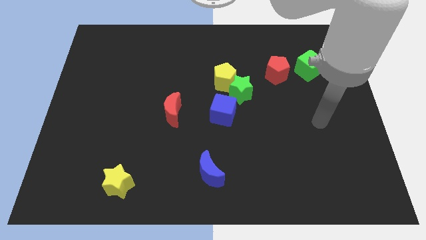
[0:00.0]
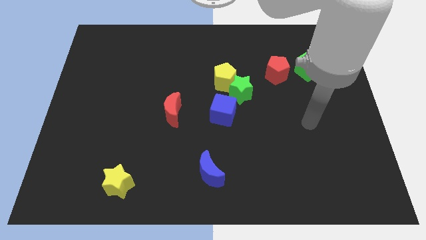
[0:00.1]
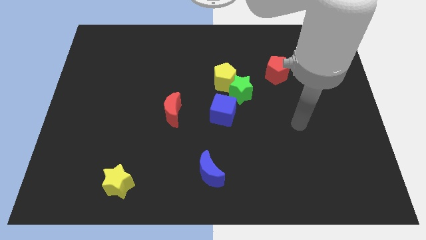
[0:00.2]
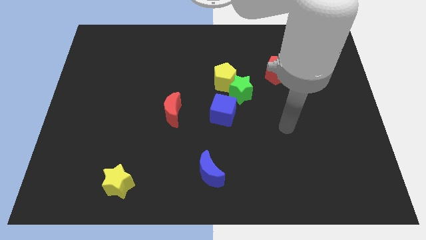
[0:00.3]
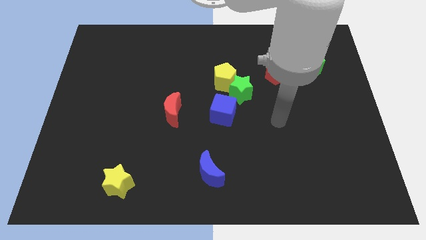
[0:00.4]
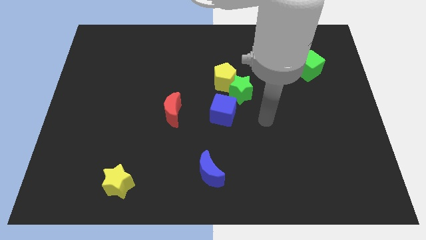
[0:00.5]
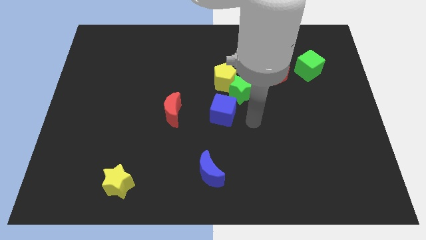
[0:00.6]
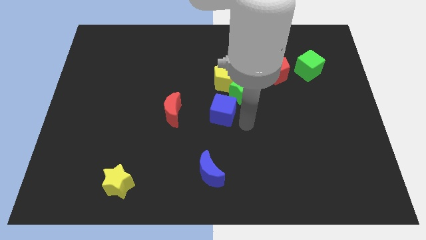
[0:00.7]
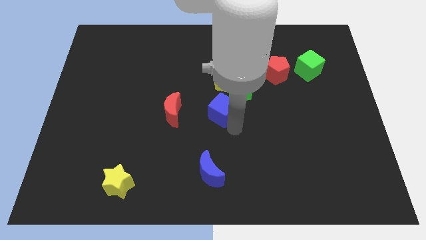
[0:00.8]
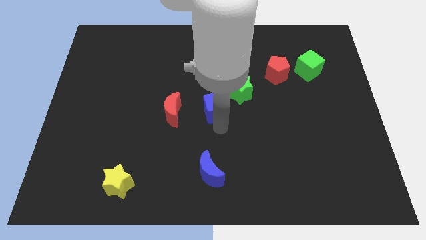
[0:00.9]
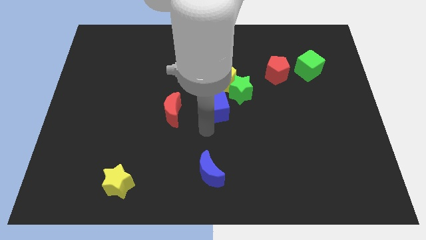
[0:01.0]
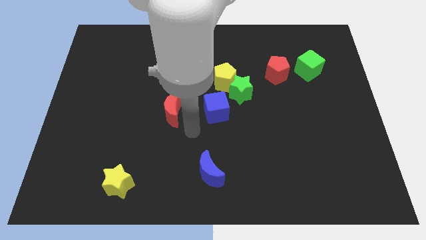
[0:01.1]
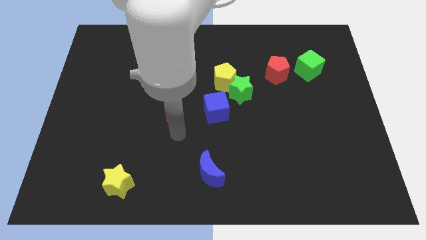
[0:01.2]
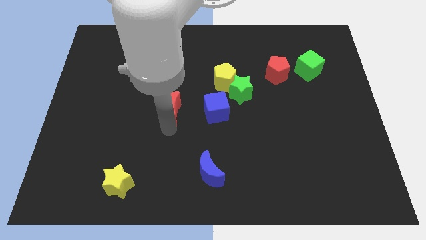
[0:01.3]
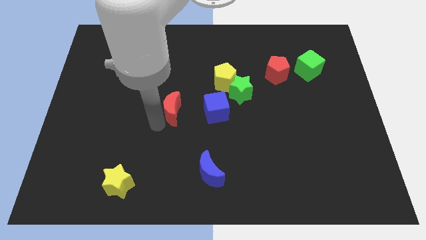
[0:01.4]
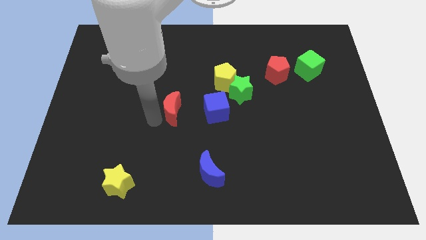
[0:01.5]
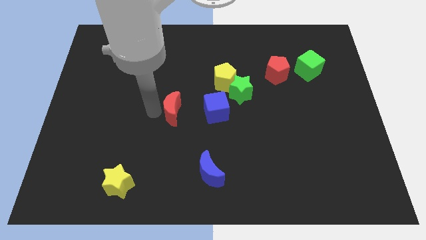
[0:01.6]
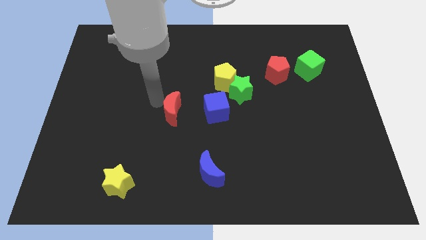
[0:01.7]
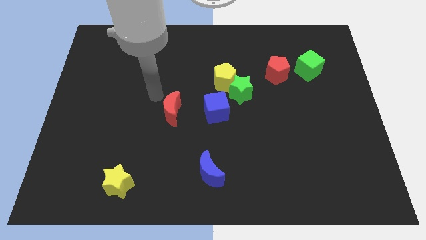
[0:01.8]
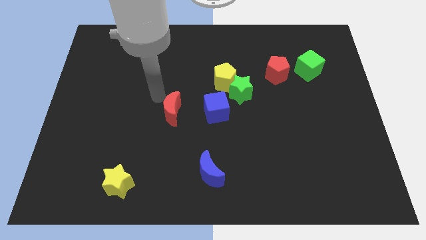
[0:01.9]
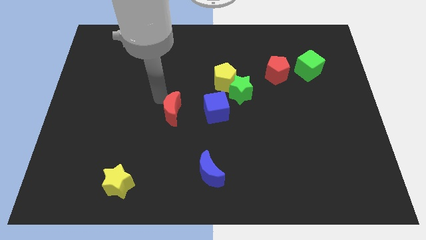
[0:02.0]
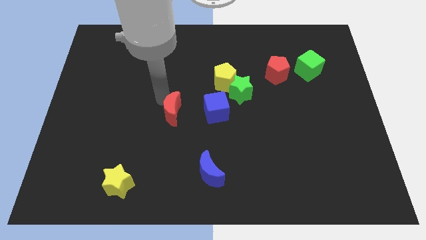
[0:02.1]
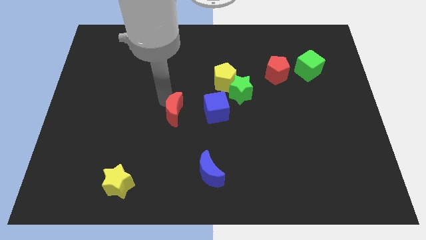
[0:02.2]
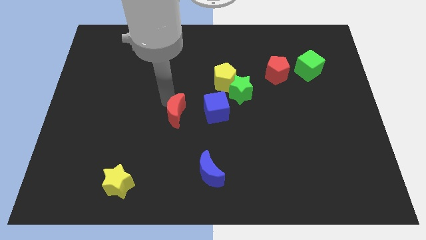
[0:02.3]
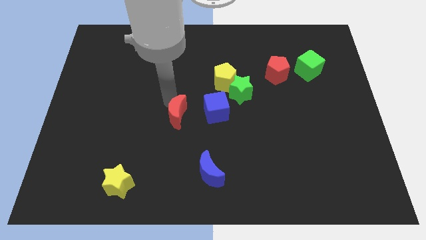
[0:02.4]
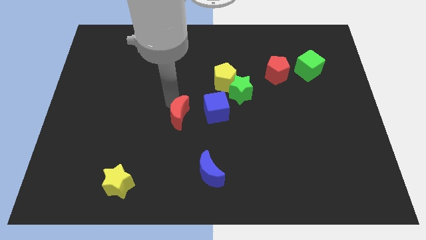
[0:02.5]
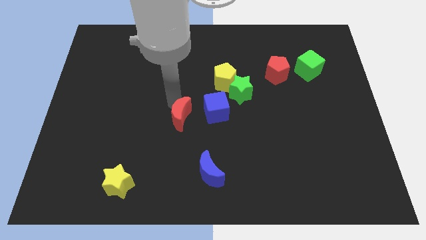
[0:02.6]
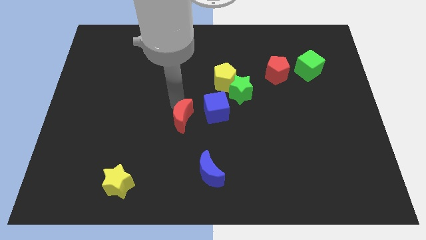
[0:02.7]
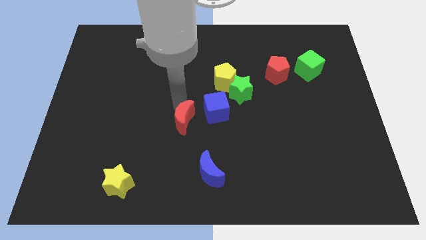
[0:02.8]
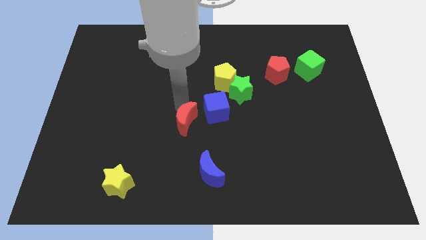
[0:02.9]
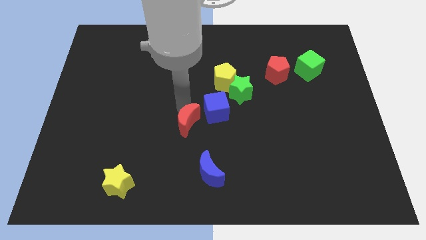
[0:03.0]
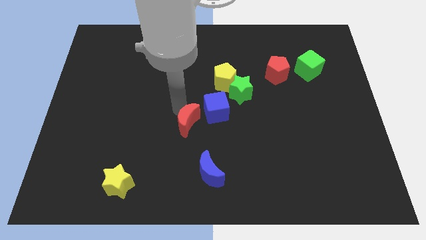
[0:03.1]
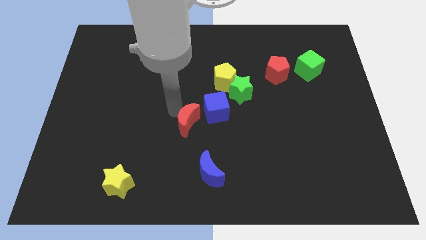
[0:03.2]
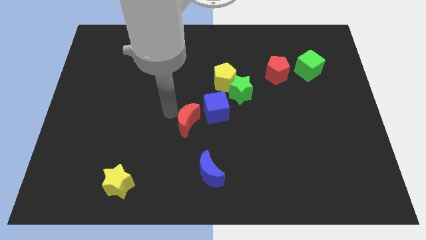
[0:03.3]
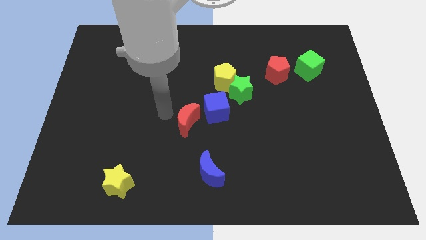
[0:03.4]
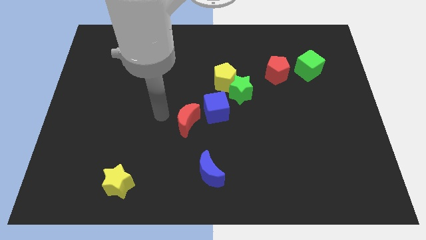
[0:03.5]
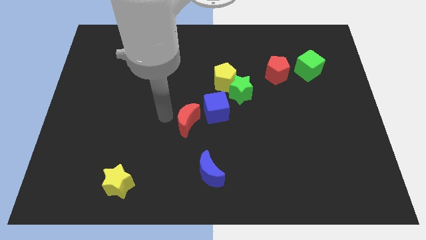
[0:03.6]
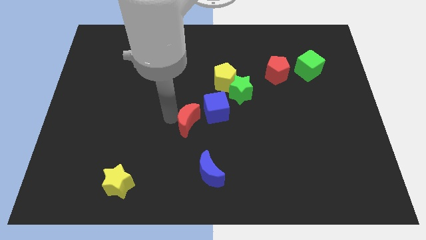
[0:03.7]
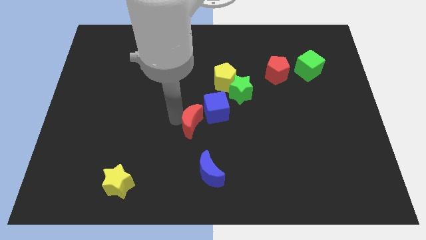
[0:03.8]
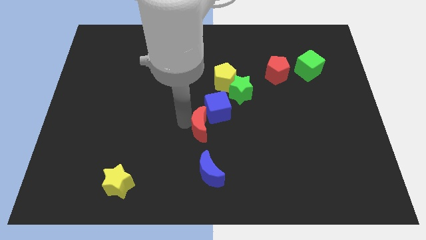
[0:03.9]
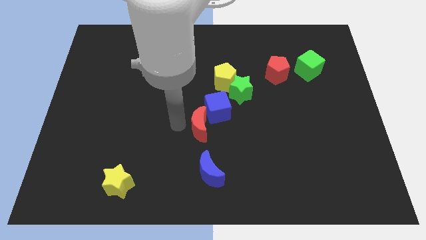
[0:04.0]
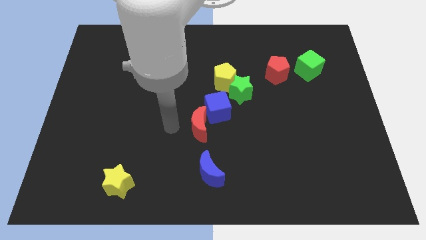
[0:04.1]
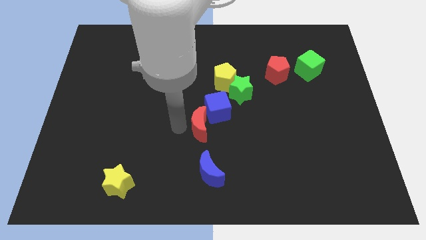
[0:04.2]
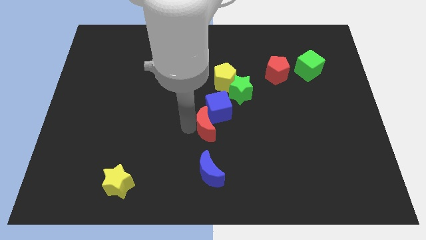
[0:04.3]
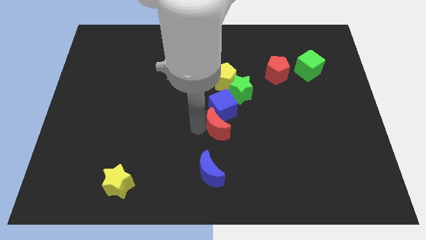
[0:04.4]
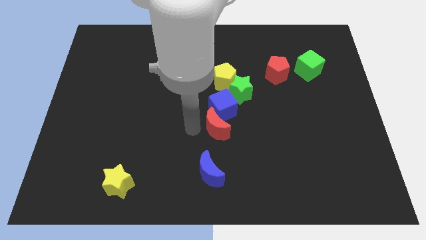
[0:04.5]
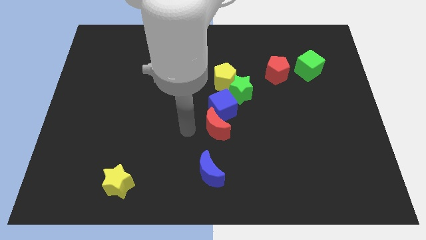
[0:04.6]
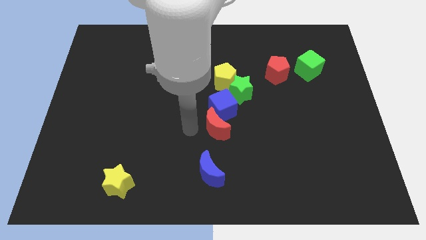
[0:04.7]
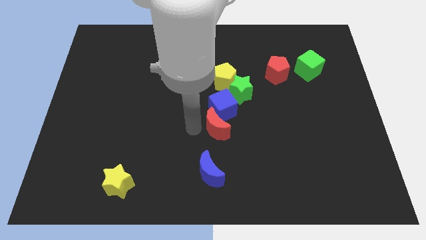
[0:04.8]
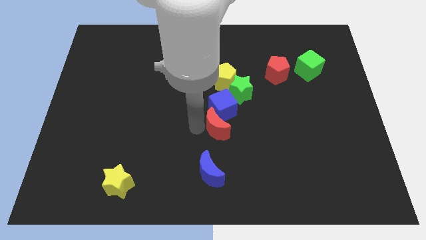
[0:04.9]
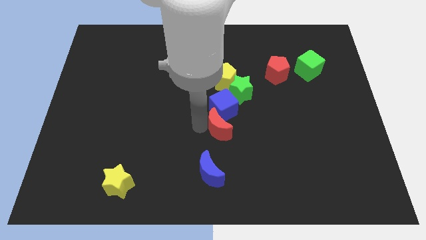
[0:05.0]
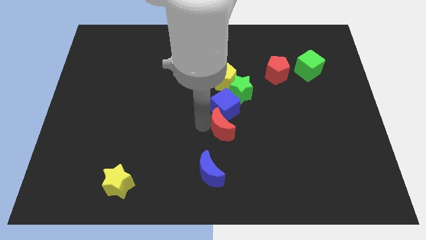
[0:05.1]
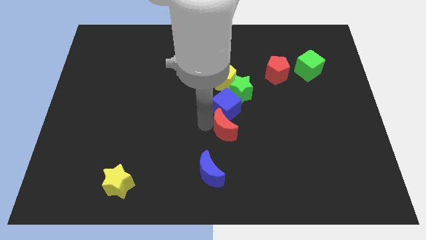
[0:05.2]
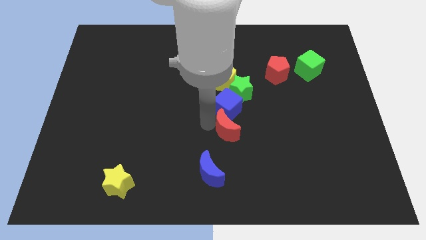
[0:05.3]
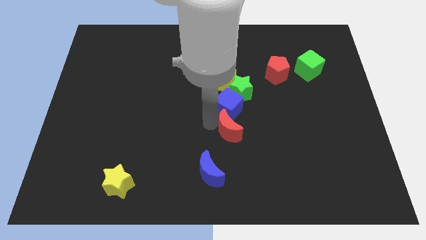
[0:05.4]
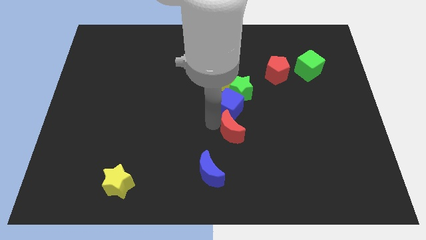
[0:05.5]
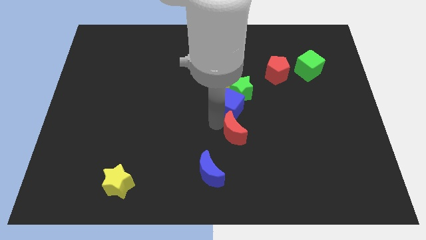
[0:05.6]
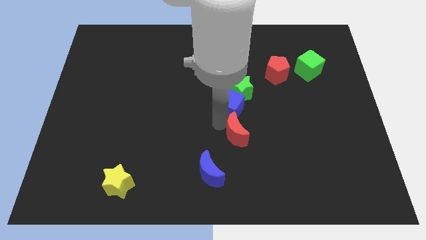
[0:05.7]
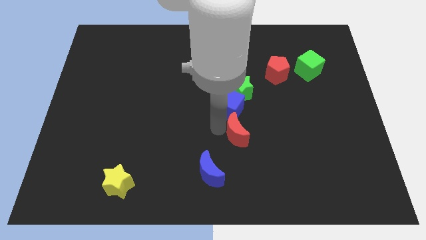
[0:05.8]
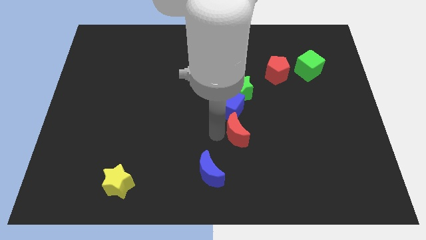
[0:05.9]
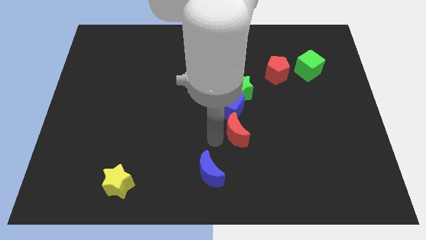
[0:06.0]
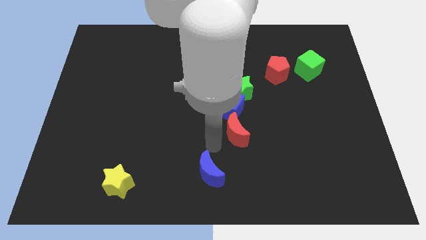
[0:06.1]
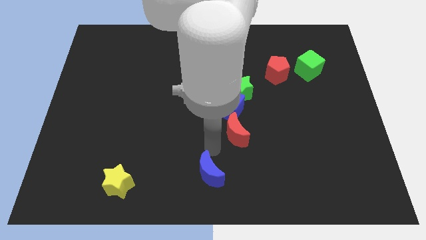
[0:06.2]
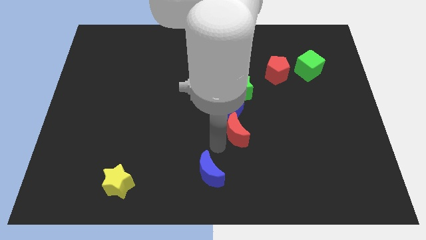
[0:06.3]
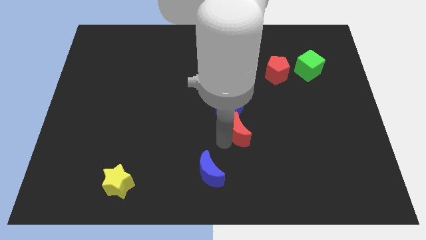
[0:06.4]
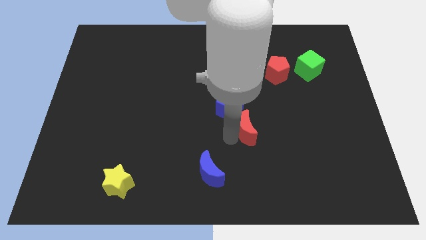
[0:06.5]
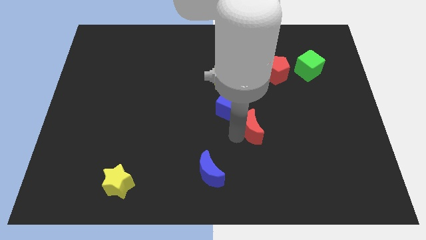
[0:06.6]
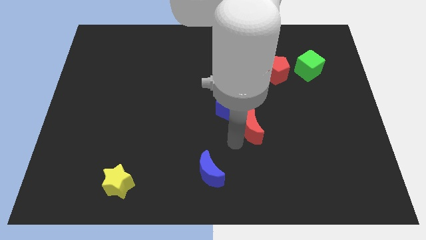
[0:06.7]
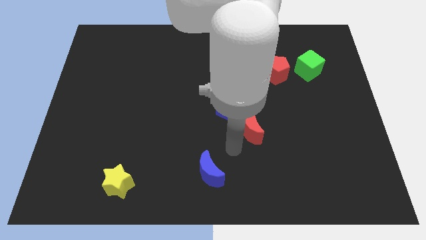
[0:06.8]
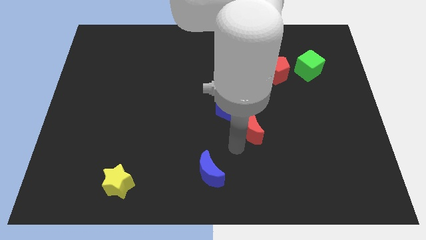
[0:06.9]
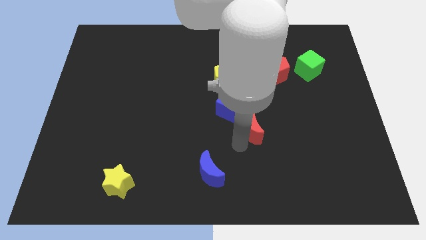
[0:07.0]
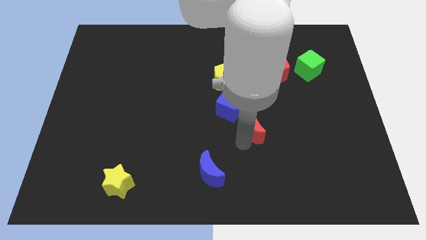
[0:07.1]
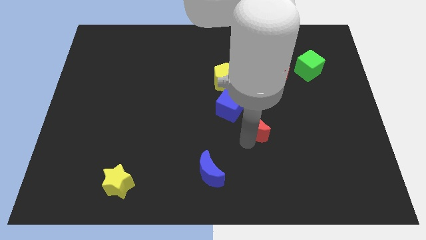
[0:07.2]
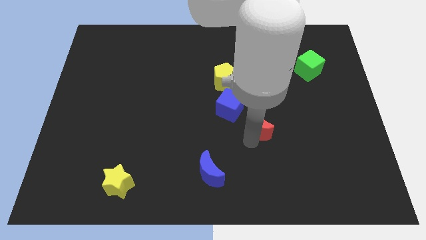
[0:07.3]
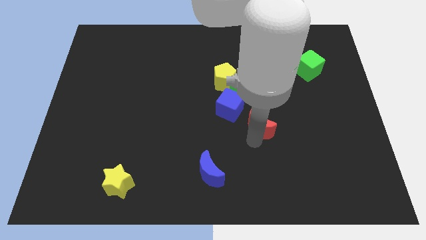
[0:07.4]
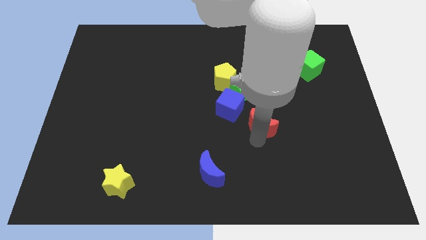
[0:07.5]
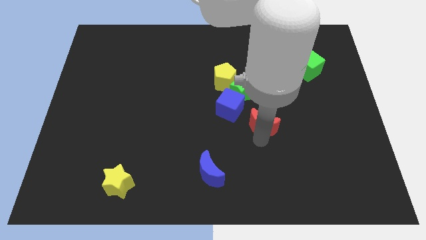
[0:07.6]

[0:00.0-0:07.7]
move the red moon to the right

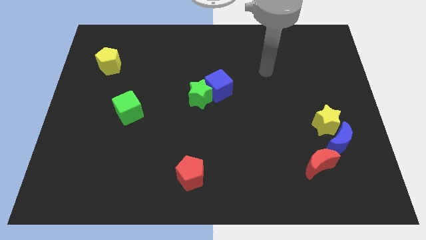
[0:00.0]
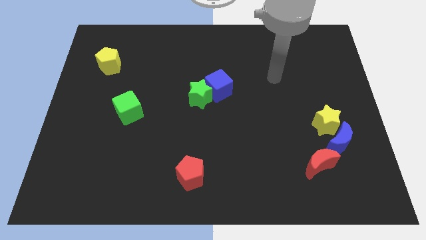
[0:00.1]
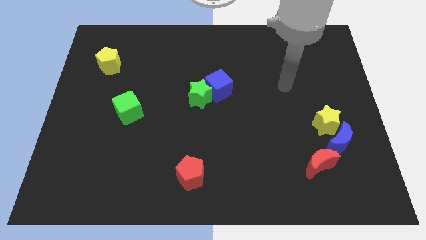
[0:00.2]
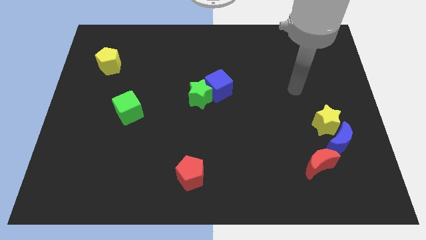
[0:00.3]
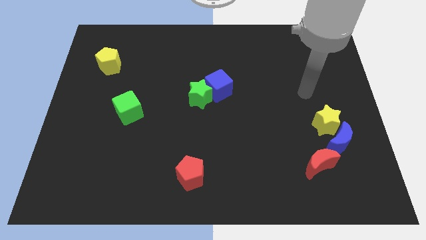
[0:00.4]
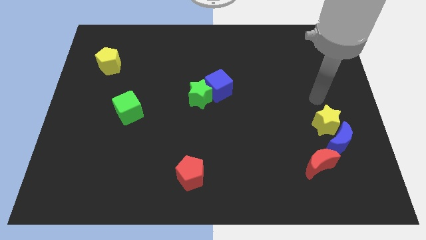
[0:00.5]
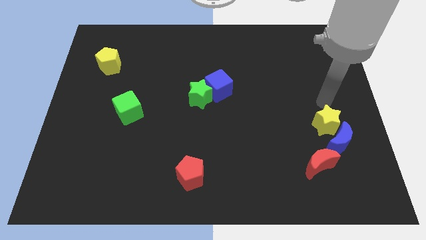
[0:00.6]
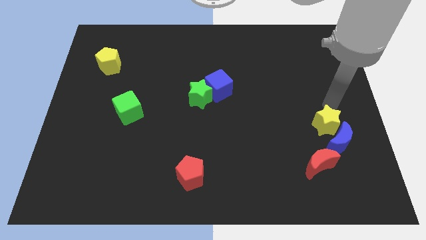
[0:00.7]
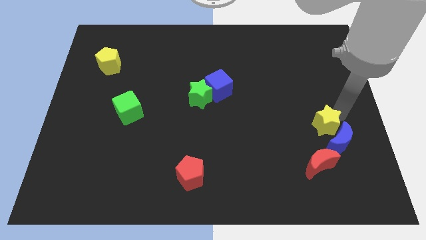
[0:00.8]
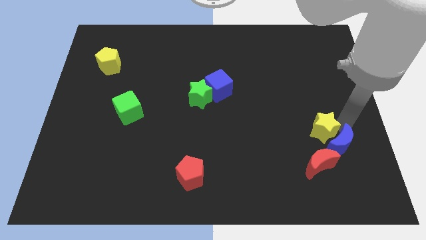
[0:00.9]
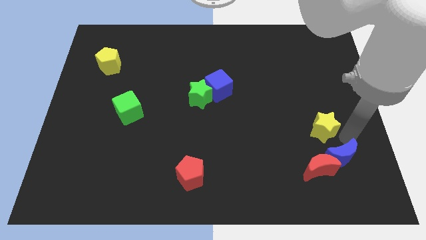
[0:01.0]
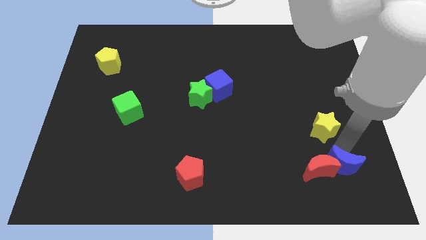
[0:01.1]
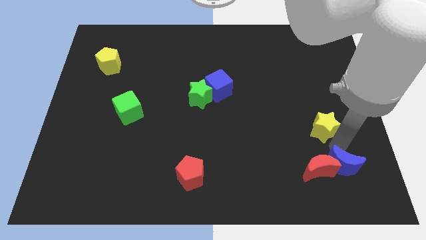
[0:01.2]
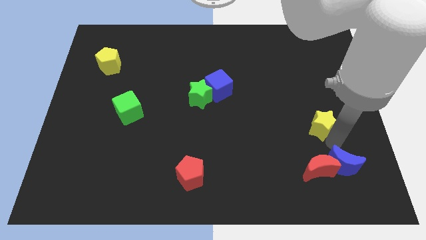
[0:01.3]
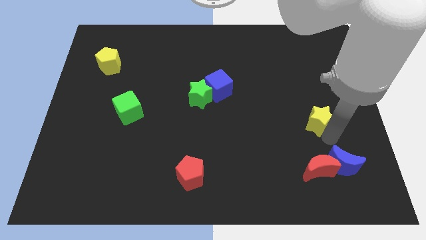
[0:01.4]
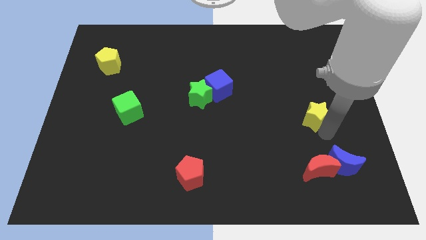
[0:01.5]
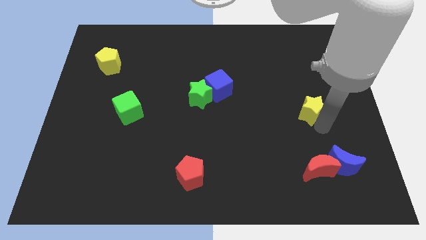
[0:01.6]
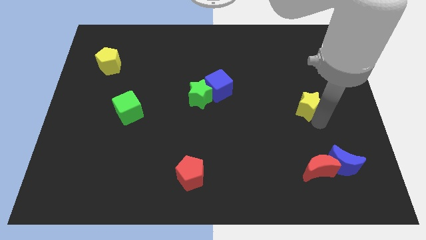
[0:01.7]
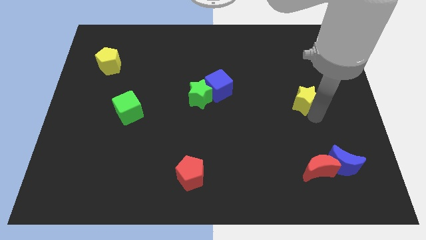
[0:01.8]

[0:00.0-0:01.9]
slide the yellow star up and then to the left a little bit
